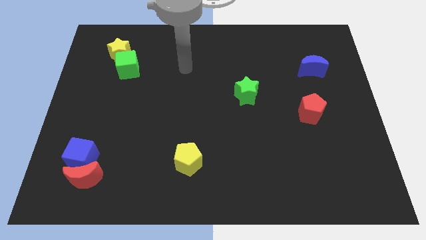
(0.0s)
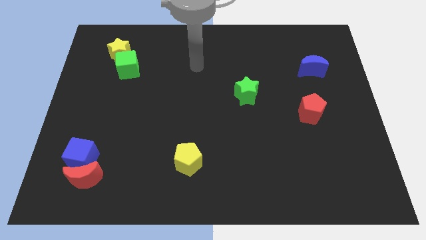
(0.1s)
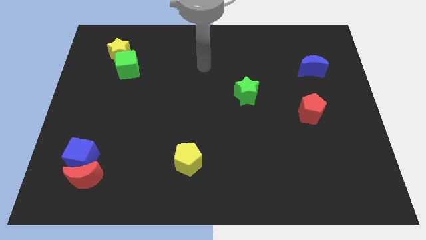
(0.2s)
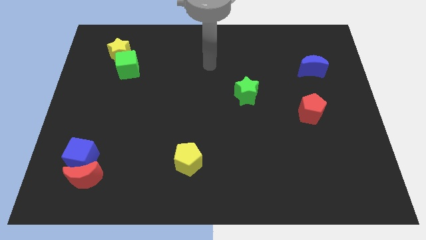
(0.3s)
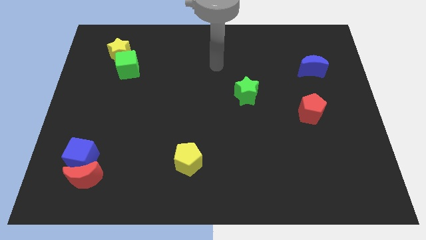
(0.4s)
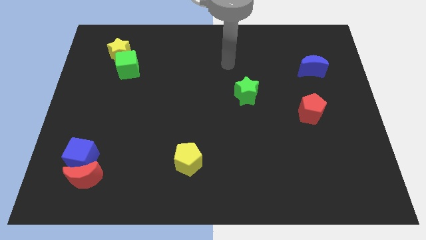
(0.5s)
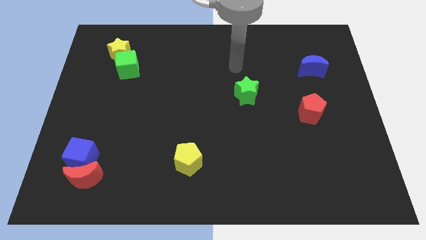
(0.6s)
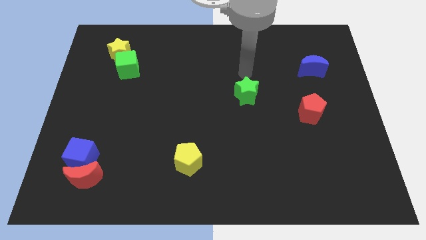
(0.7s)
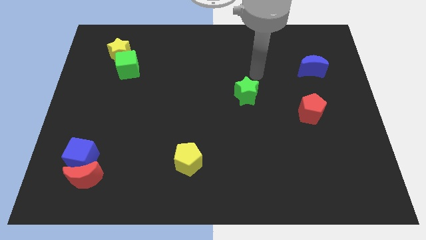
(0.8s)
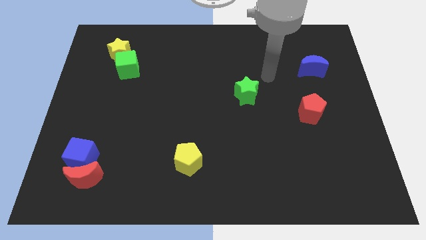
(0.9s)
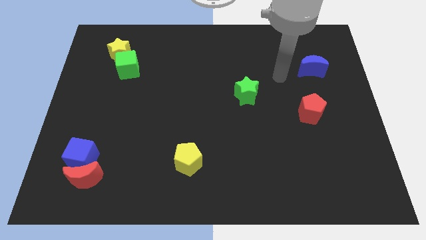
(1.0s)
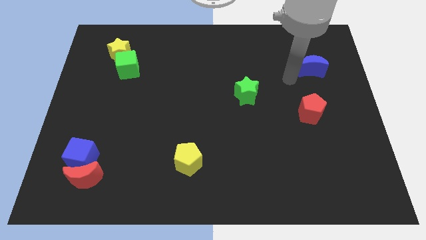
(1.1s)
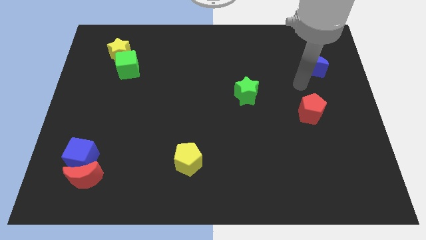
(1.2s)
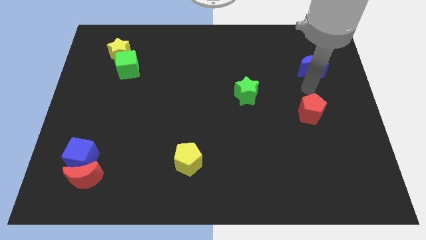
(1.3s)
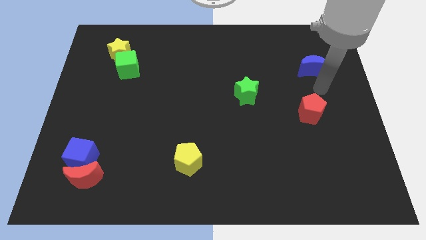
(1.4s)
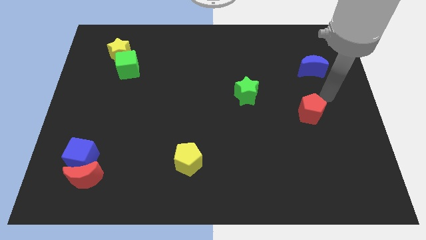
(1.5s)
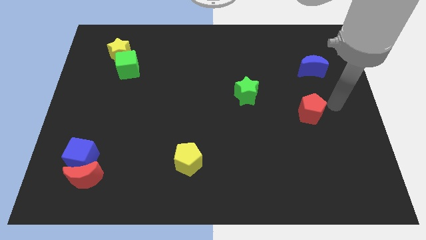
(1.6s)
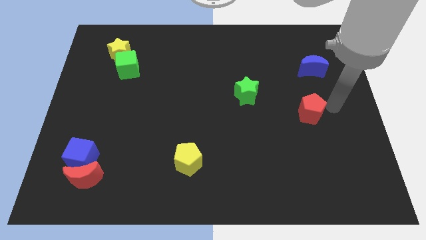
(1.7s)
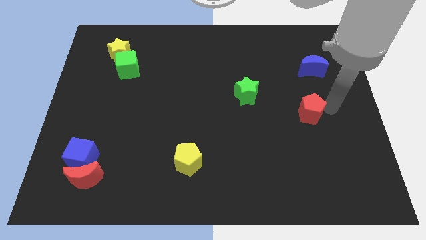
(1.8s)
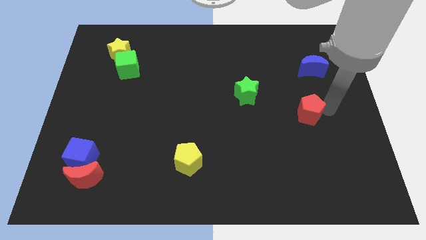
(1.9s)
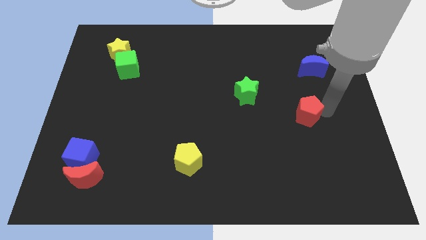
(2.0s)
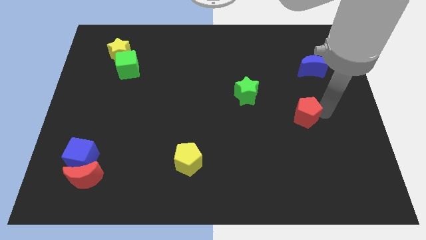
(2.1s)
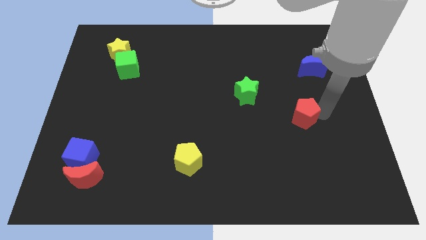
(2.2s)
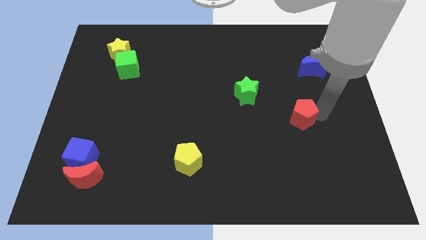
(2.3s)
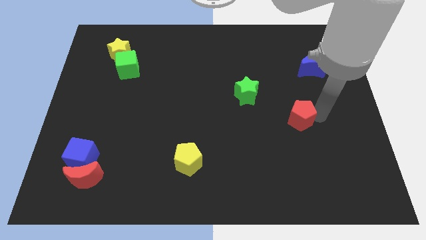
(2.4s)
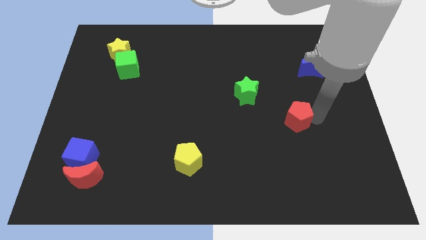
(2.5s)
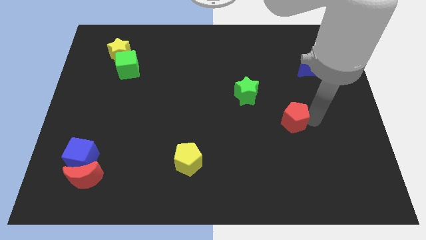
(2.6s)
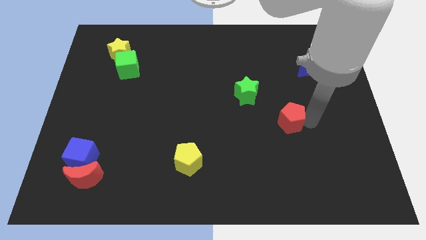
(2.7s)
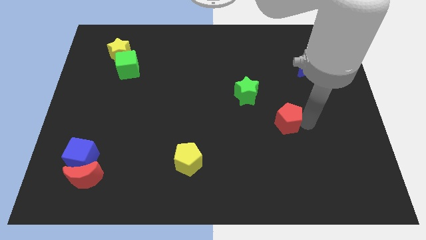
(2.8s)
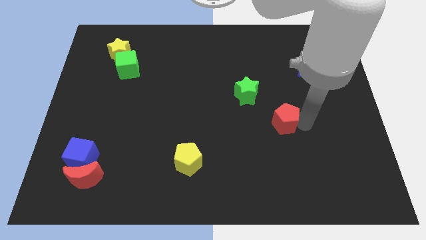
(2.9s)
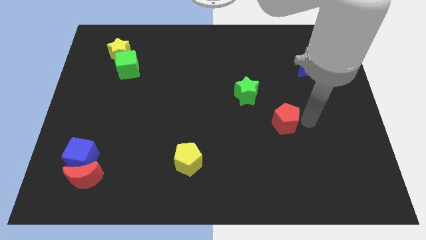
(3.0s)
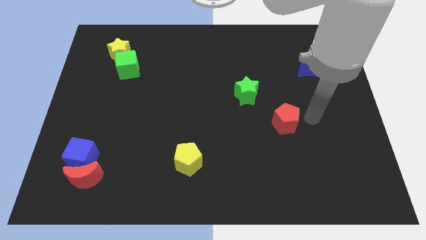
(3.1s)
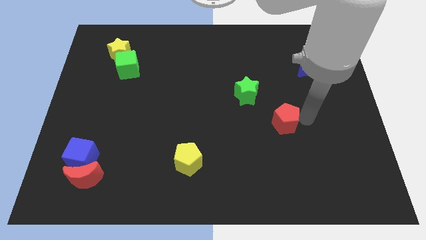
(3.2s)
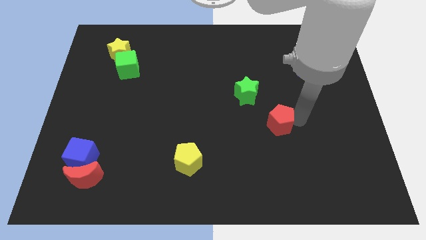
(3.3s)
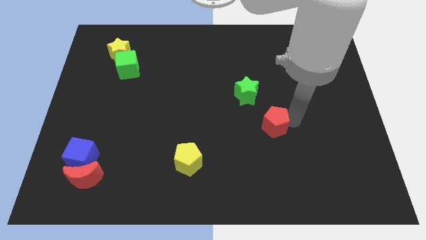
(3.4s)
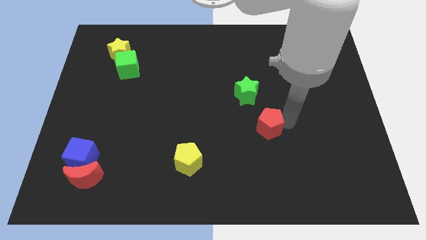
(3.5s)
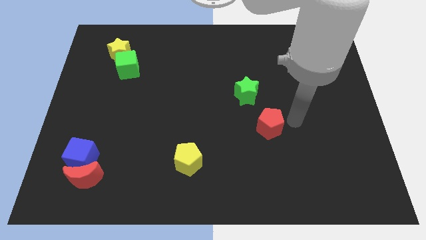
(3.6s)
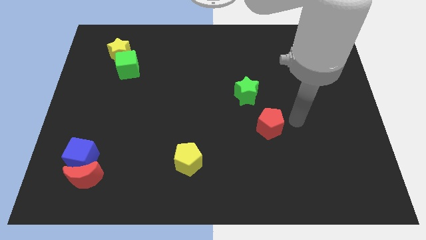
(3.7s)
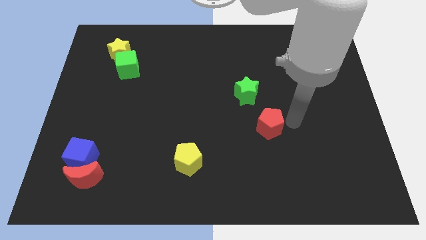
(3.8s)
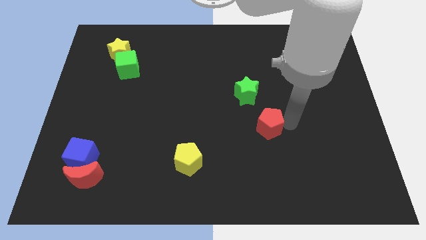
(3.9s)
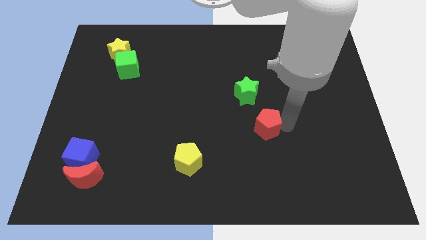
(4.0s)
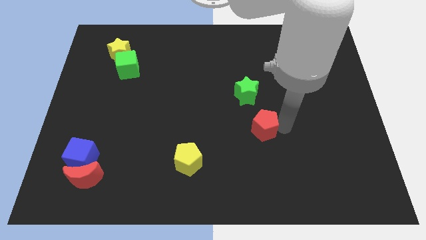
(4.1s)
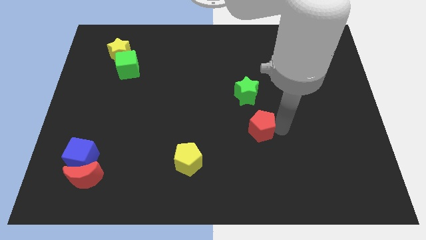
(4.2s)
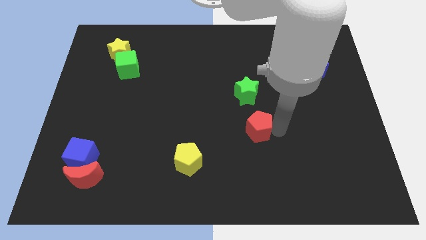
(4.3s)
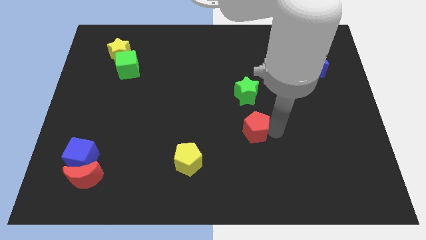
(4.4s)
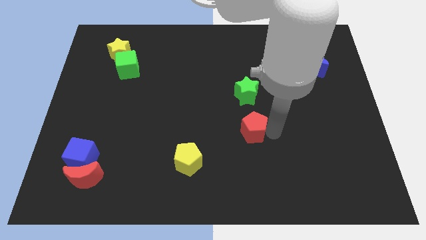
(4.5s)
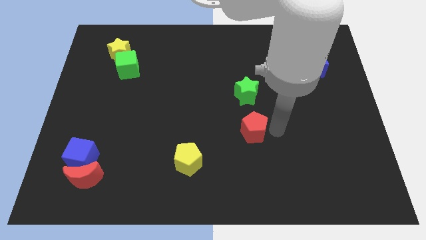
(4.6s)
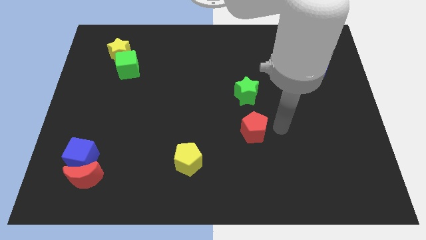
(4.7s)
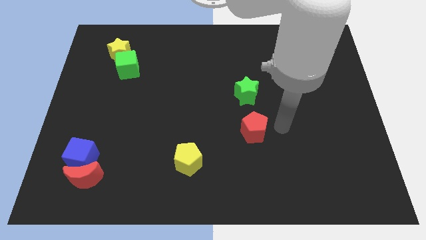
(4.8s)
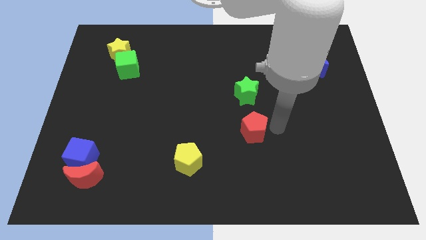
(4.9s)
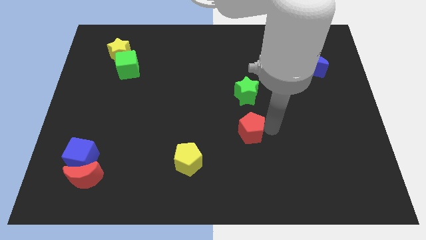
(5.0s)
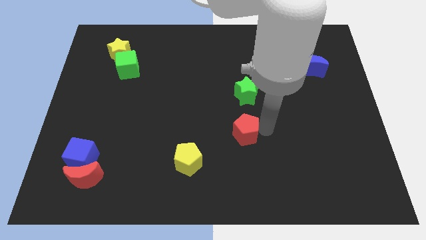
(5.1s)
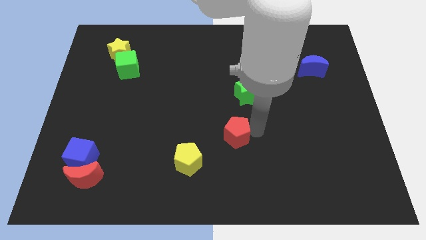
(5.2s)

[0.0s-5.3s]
put the red pentagon diagonally up and to the right of the yellow pentagon

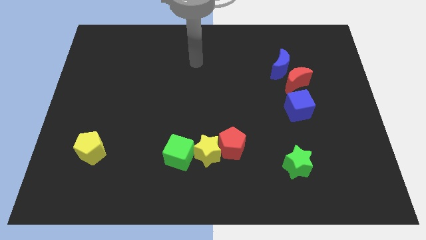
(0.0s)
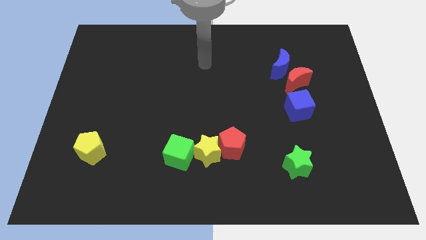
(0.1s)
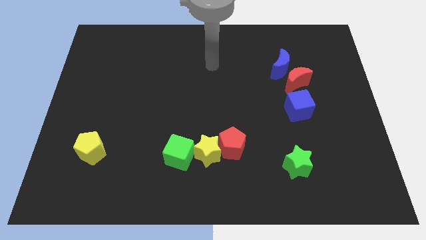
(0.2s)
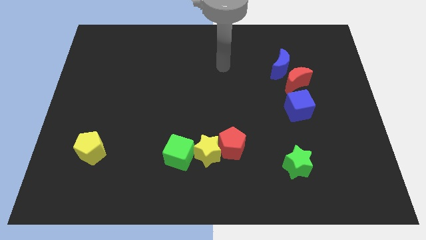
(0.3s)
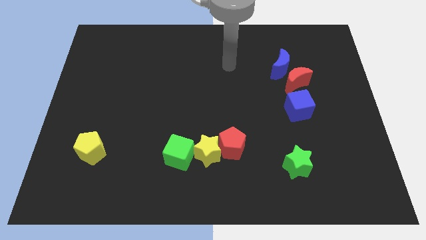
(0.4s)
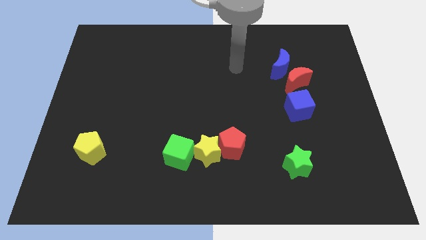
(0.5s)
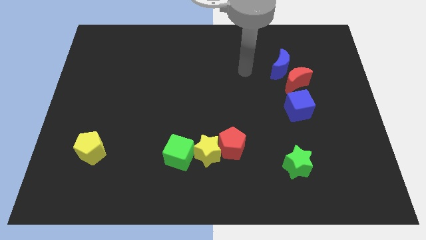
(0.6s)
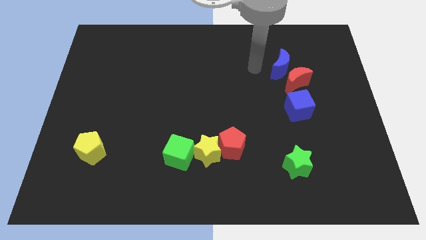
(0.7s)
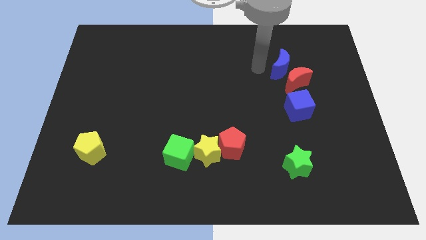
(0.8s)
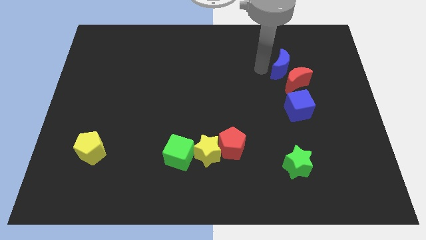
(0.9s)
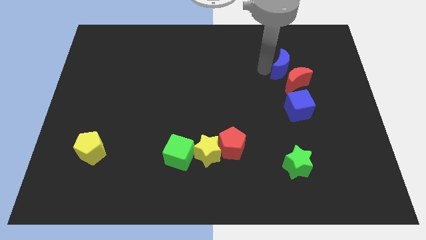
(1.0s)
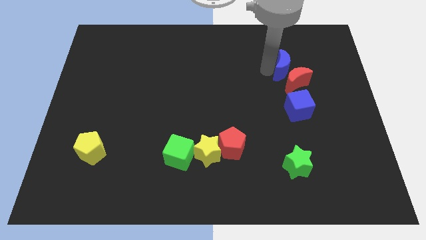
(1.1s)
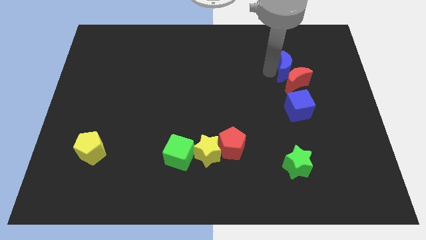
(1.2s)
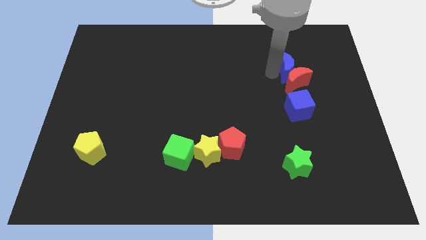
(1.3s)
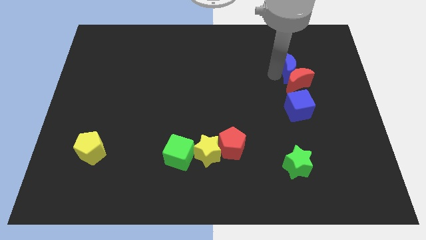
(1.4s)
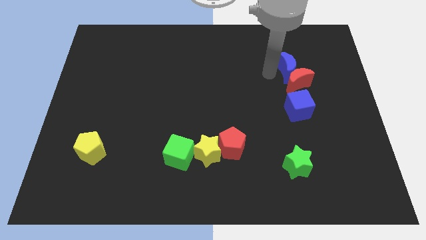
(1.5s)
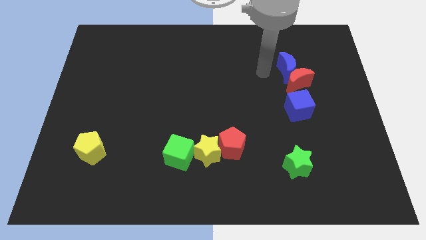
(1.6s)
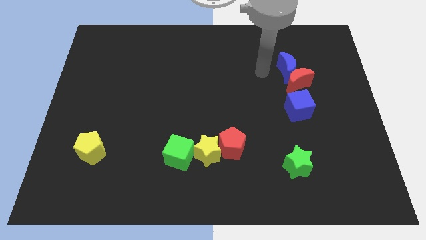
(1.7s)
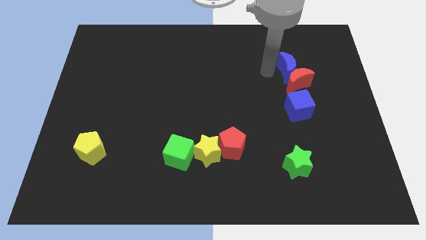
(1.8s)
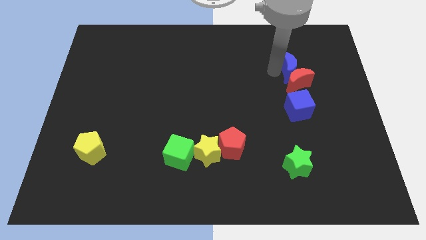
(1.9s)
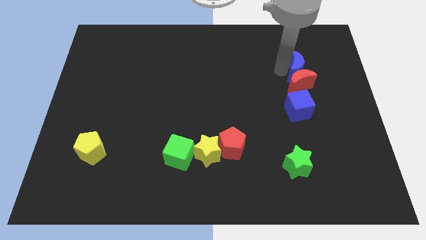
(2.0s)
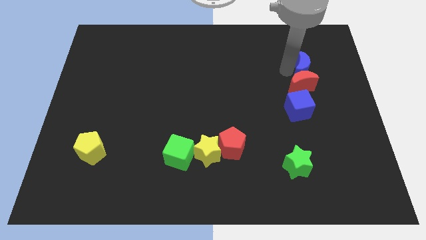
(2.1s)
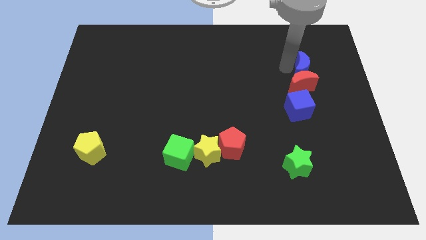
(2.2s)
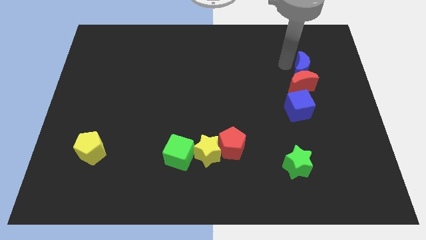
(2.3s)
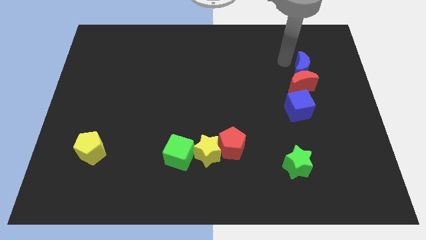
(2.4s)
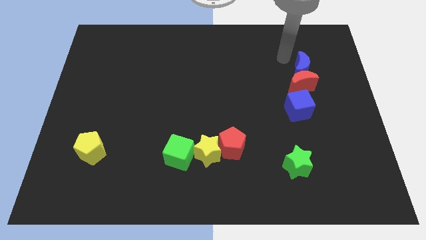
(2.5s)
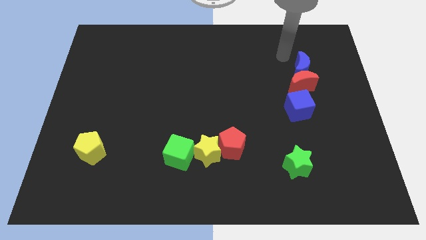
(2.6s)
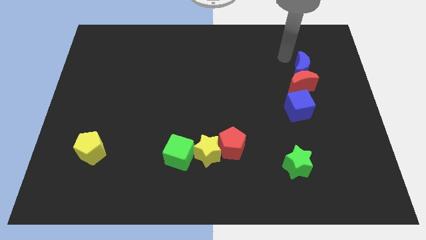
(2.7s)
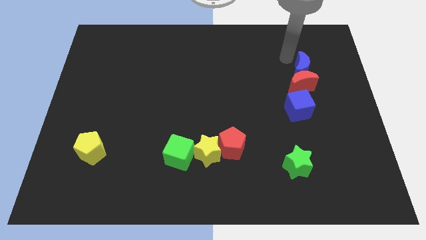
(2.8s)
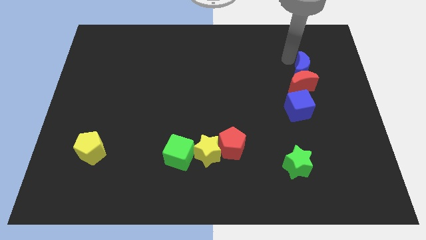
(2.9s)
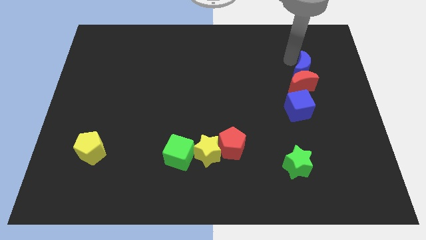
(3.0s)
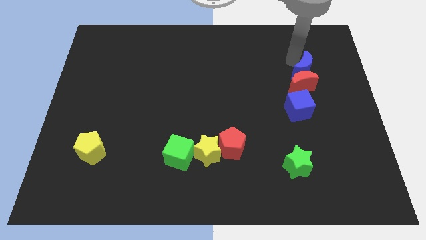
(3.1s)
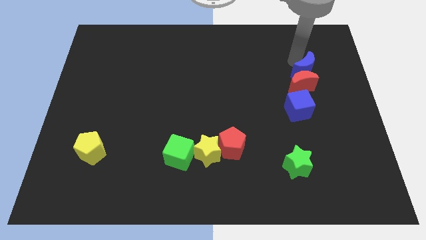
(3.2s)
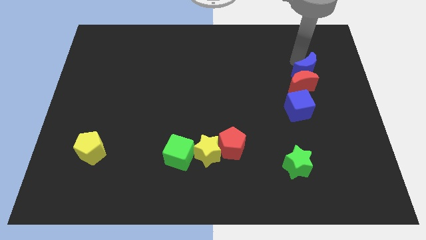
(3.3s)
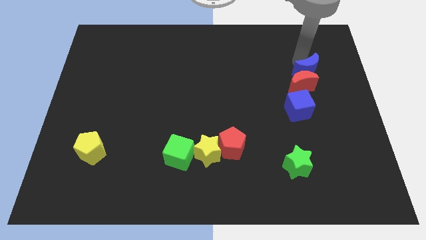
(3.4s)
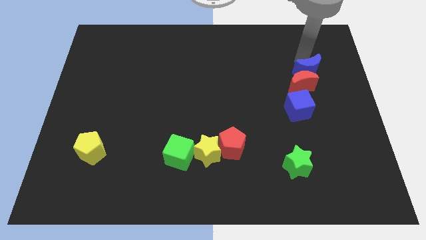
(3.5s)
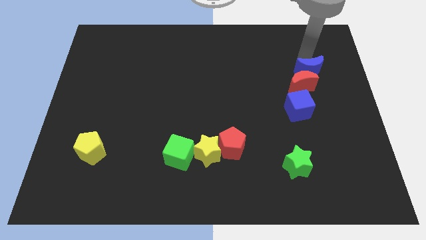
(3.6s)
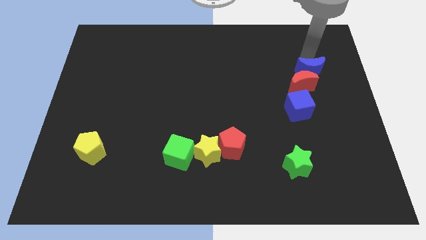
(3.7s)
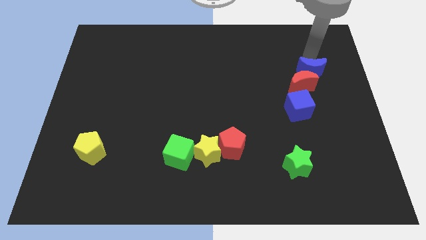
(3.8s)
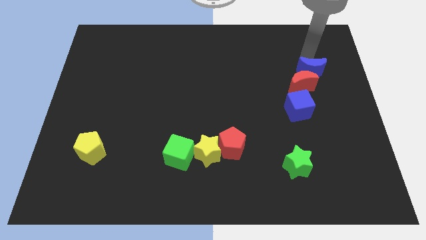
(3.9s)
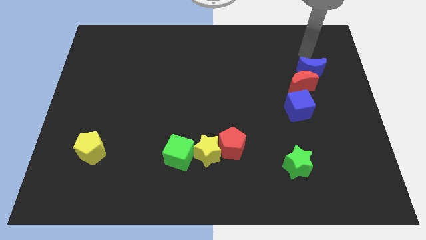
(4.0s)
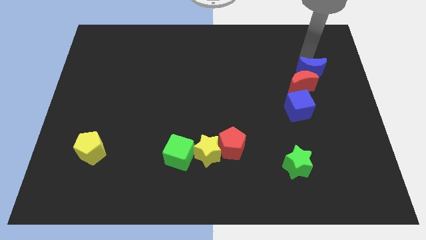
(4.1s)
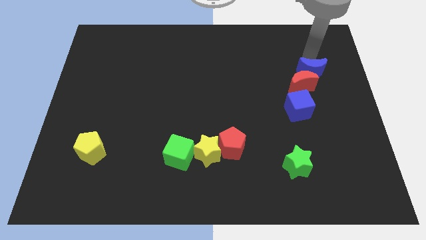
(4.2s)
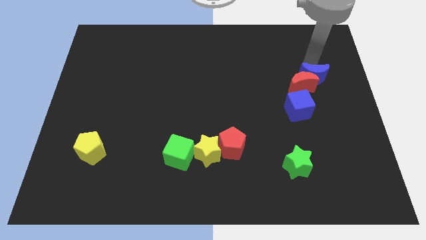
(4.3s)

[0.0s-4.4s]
move the blue moon to the top right of the blue cube
